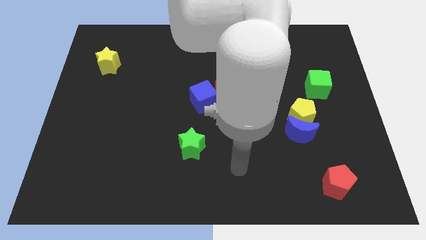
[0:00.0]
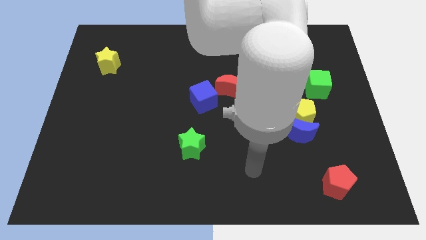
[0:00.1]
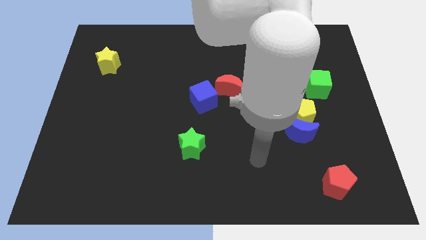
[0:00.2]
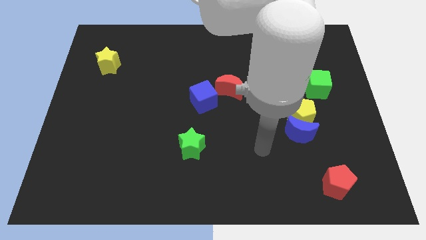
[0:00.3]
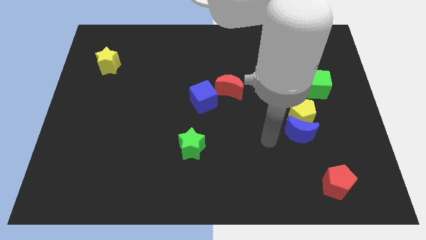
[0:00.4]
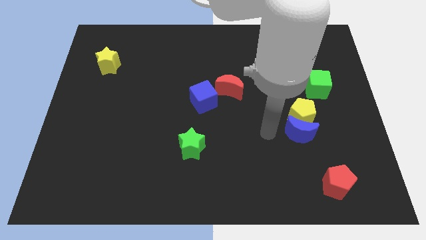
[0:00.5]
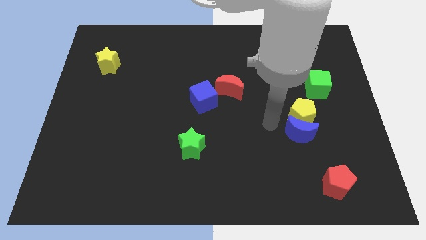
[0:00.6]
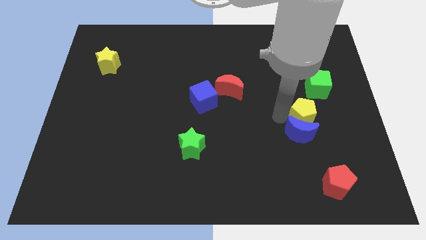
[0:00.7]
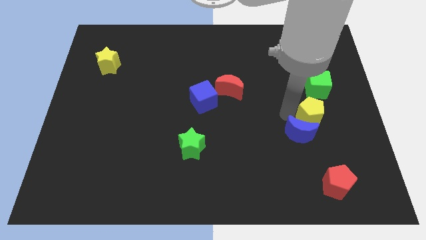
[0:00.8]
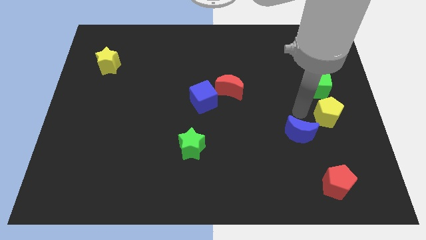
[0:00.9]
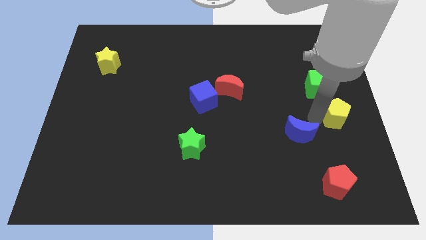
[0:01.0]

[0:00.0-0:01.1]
pull the blue moon apart from the yellow pentagon

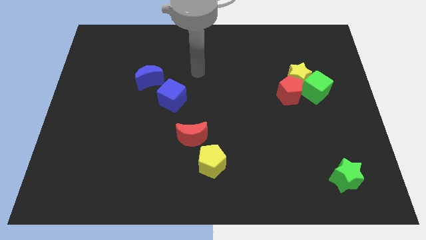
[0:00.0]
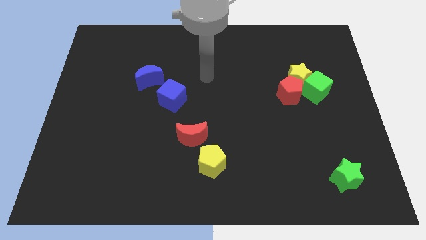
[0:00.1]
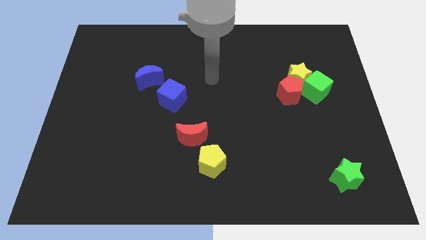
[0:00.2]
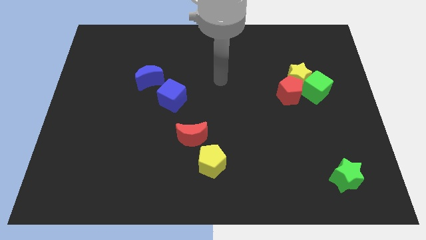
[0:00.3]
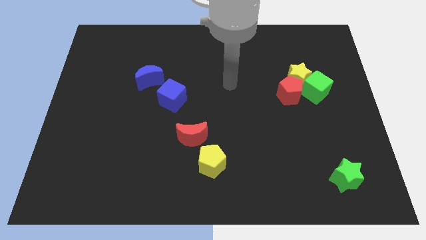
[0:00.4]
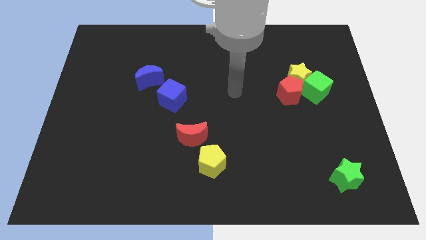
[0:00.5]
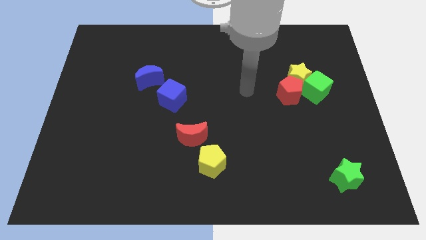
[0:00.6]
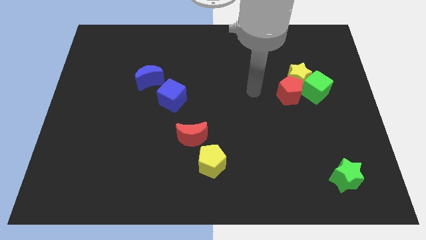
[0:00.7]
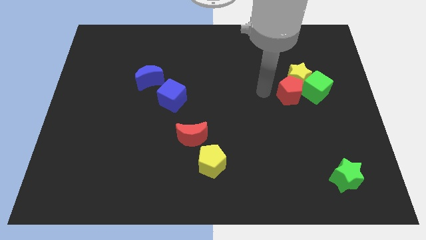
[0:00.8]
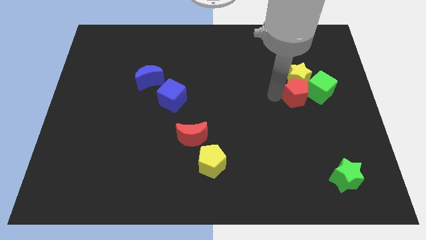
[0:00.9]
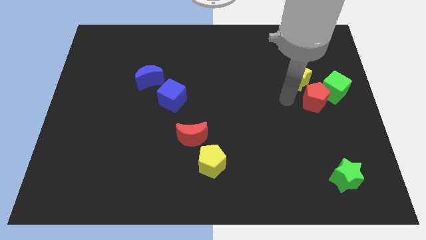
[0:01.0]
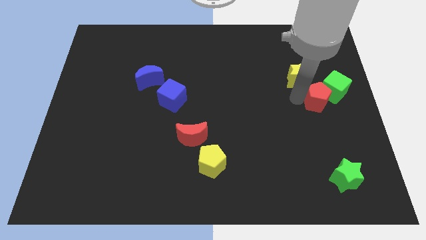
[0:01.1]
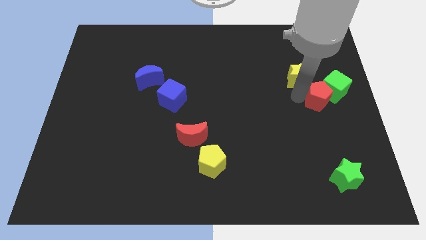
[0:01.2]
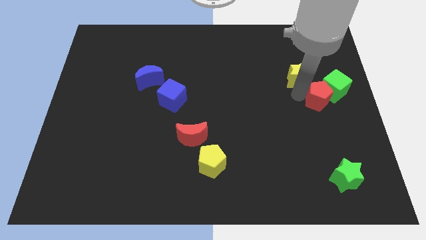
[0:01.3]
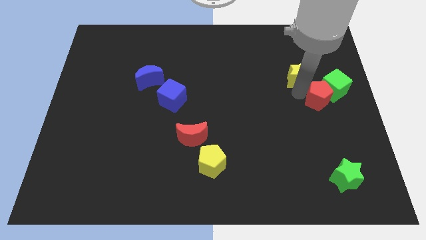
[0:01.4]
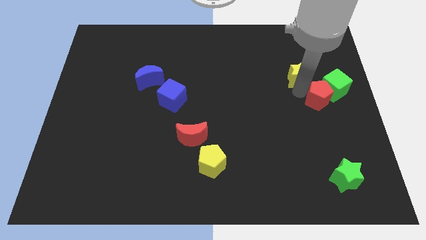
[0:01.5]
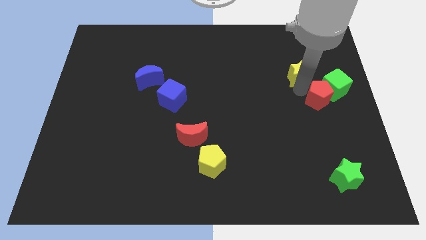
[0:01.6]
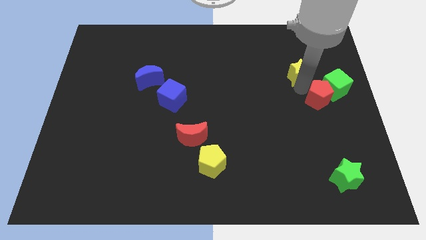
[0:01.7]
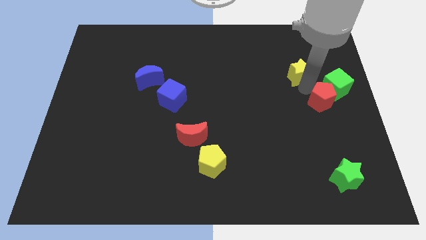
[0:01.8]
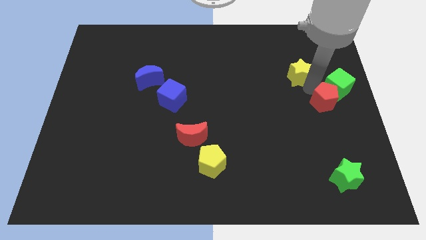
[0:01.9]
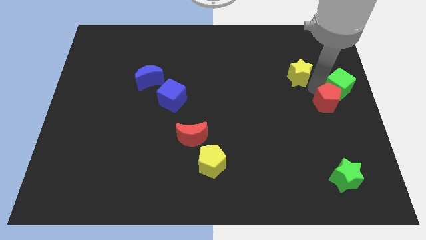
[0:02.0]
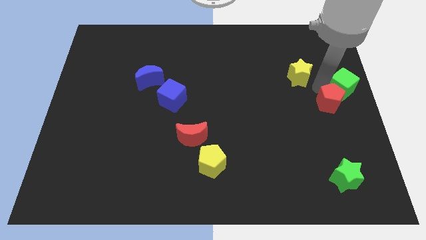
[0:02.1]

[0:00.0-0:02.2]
separate the yellow star from the red pentagon and green cube

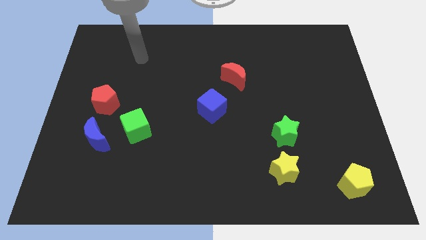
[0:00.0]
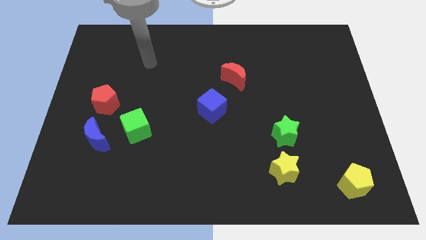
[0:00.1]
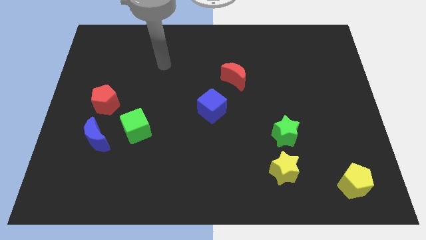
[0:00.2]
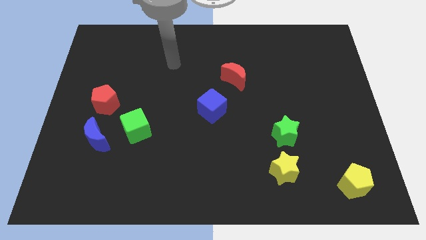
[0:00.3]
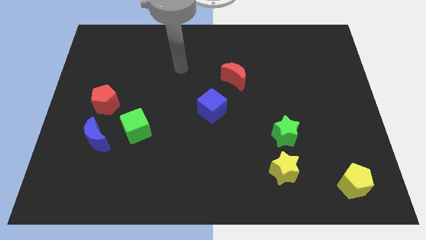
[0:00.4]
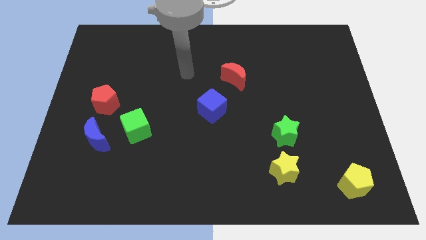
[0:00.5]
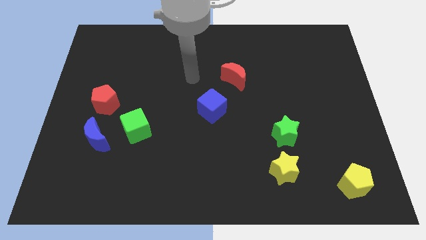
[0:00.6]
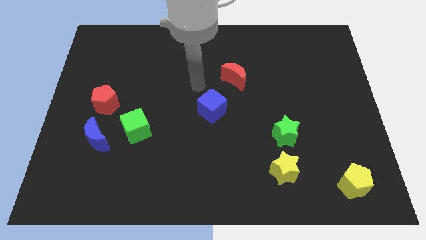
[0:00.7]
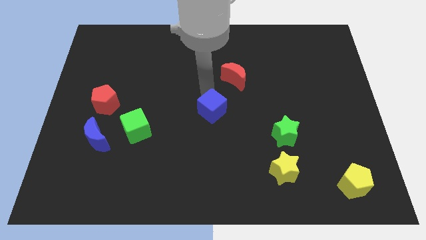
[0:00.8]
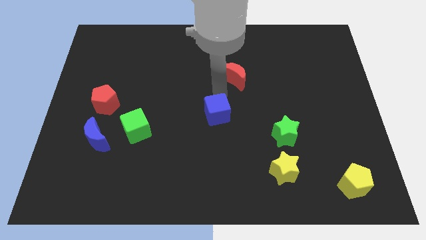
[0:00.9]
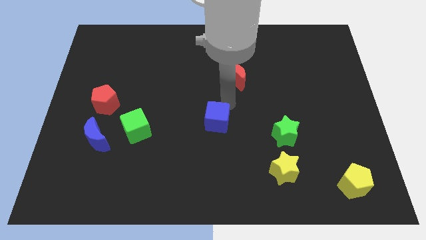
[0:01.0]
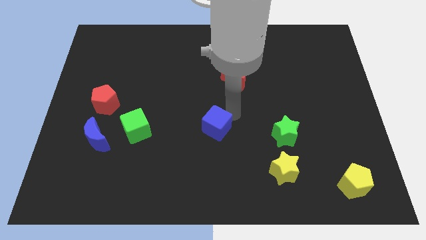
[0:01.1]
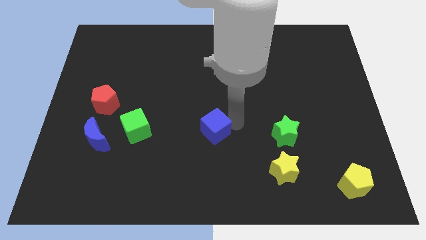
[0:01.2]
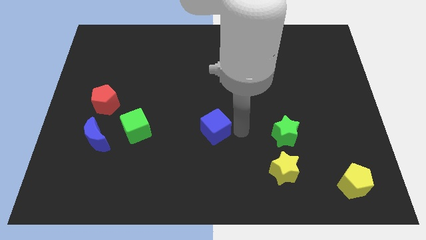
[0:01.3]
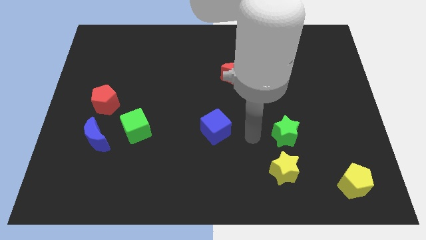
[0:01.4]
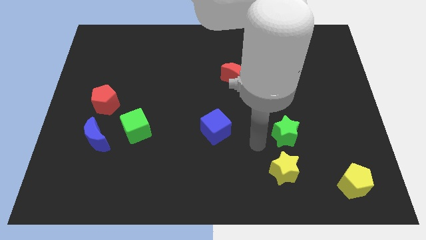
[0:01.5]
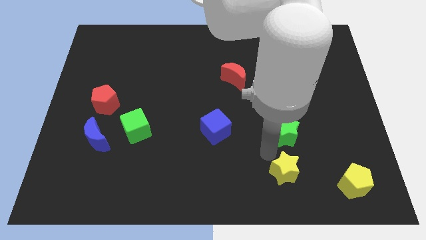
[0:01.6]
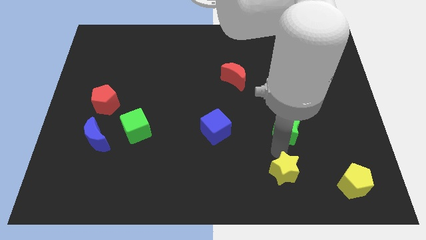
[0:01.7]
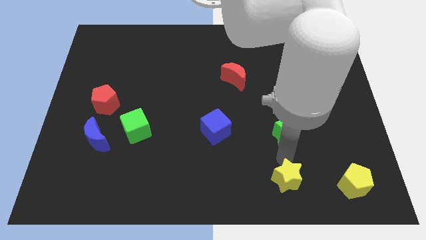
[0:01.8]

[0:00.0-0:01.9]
separate the green star from the yellow star

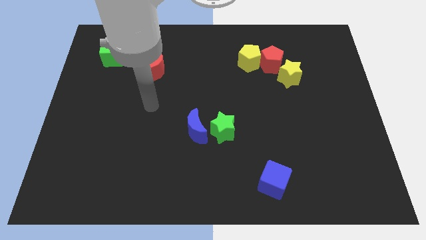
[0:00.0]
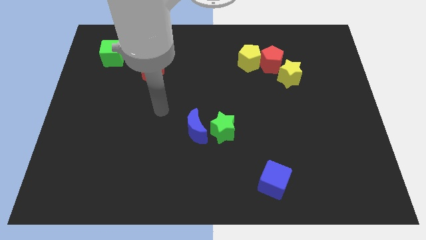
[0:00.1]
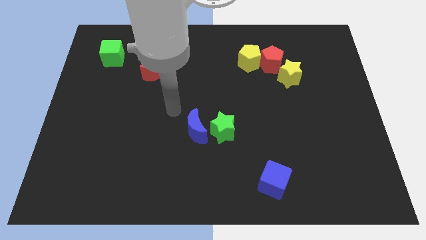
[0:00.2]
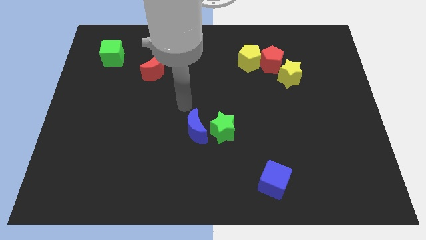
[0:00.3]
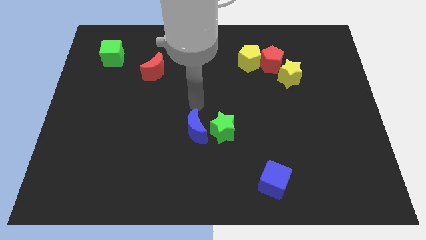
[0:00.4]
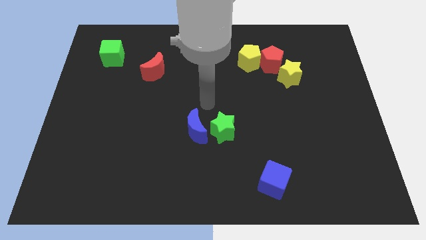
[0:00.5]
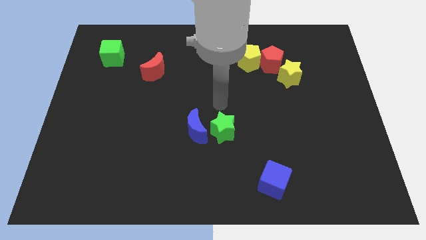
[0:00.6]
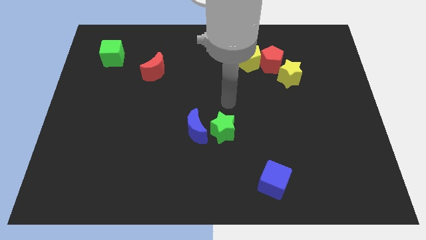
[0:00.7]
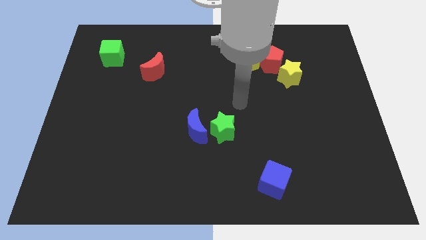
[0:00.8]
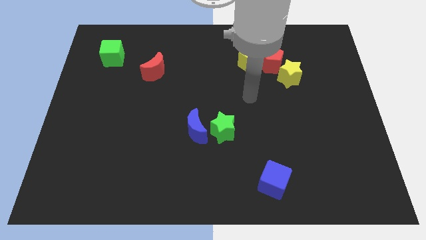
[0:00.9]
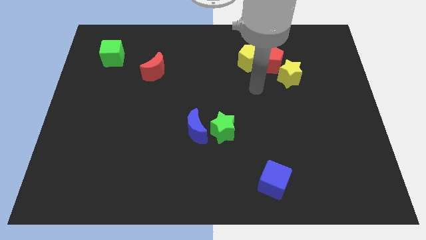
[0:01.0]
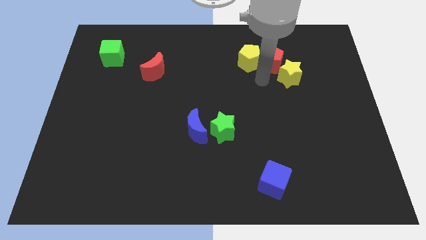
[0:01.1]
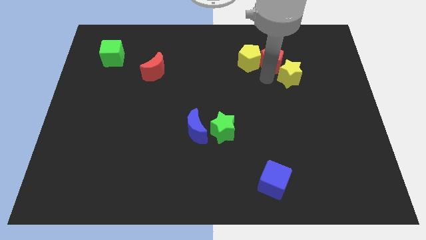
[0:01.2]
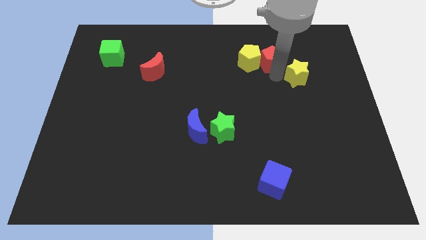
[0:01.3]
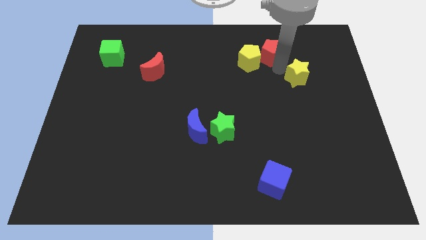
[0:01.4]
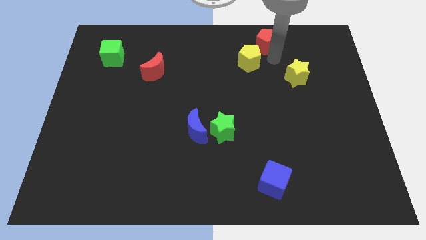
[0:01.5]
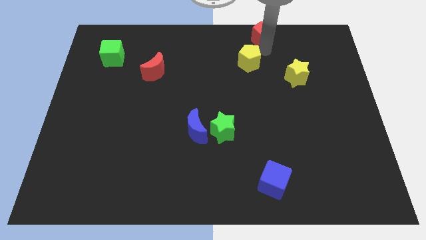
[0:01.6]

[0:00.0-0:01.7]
pull the yellow pentagon apart from the red pentagon

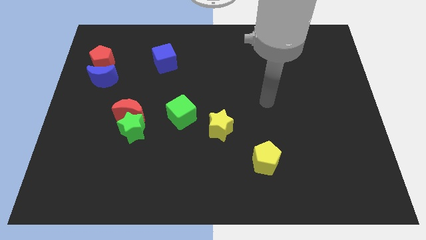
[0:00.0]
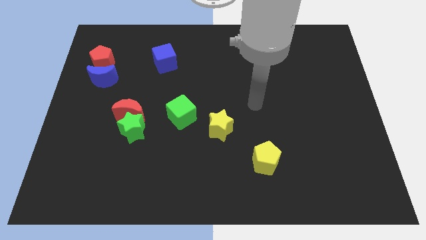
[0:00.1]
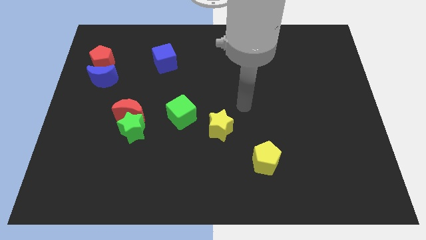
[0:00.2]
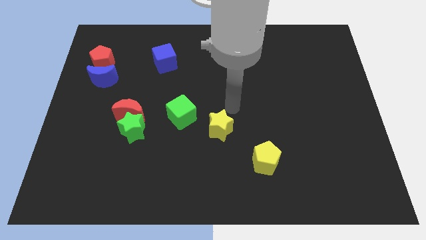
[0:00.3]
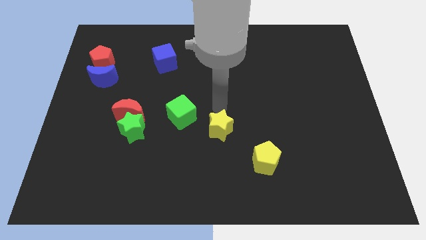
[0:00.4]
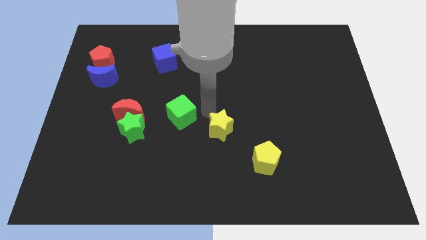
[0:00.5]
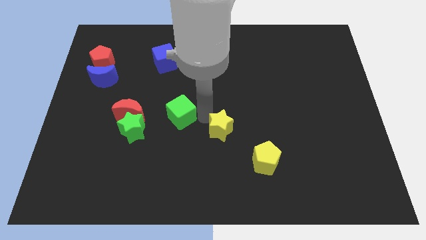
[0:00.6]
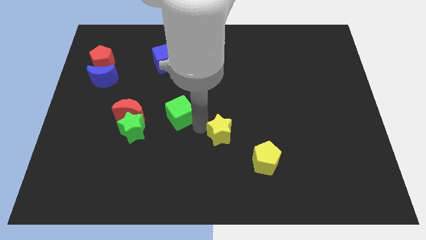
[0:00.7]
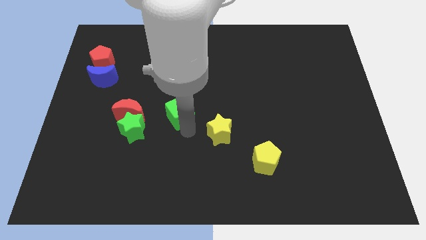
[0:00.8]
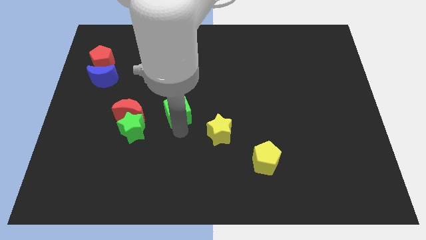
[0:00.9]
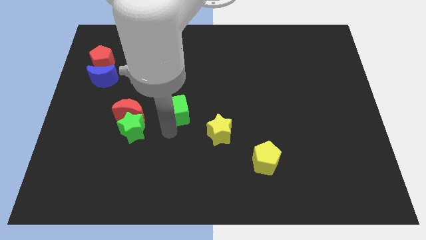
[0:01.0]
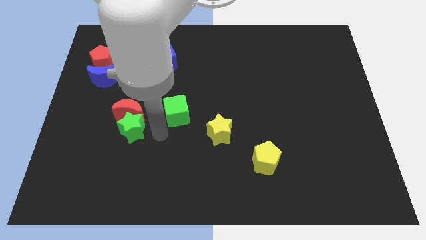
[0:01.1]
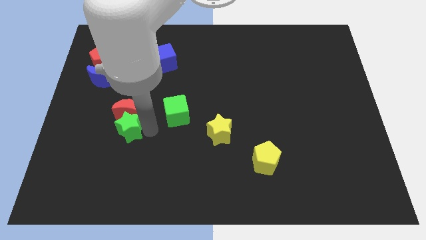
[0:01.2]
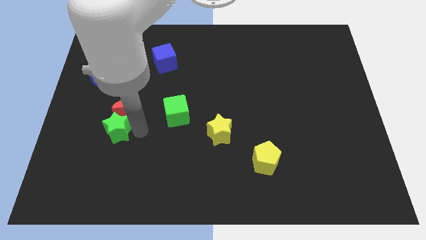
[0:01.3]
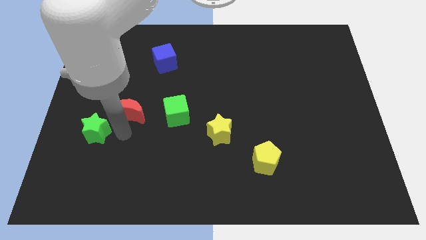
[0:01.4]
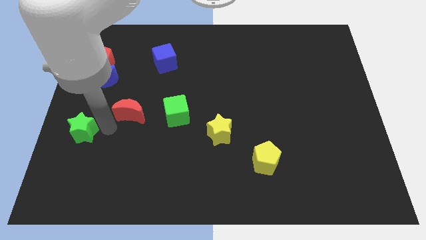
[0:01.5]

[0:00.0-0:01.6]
pull the red moon apart from the green star

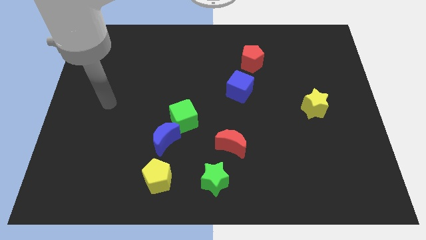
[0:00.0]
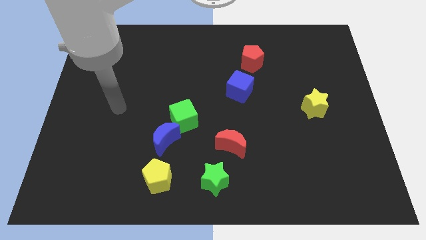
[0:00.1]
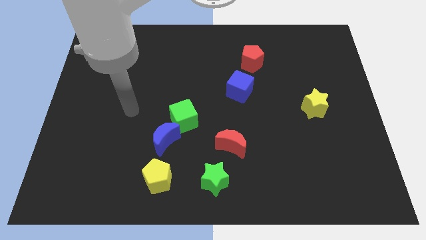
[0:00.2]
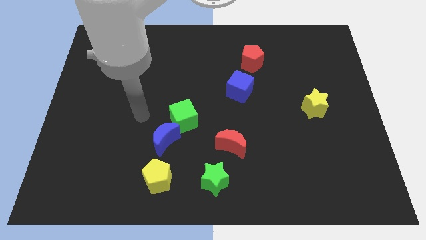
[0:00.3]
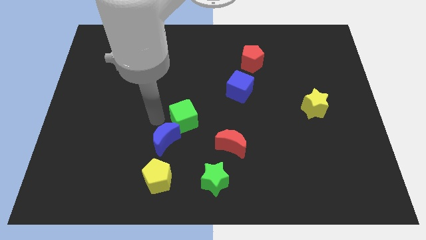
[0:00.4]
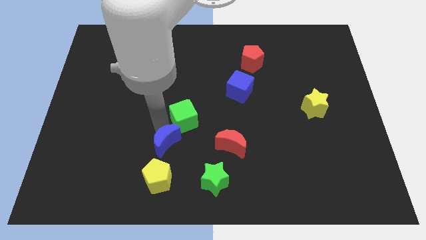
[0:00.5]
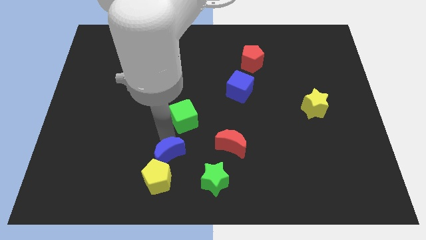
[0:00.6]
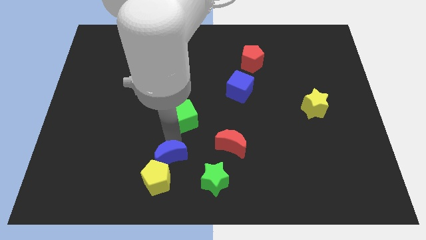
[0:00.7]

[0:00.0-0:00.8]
separate the green cube from the blue moon

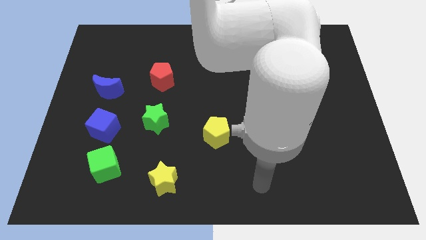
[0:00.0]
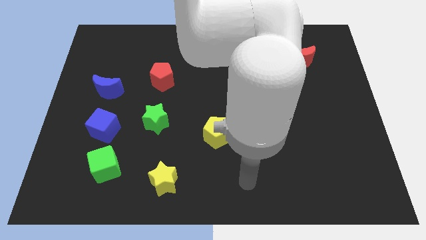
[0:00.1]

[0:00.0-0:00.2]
move the blue cube away from the green cube

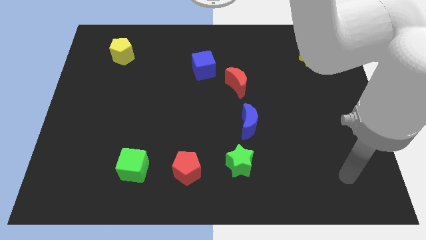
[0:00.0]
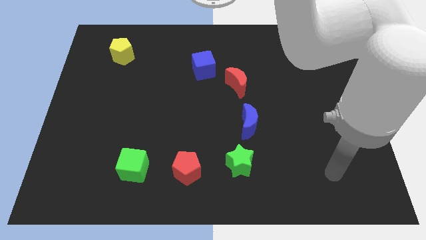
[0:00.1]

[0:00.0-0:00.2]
move the red moon away from the blue cube
